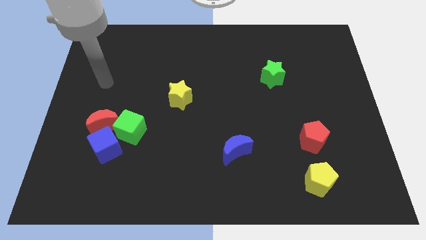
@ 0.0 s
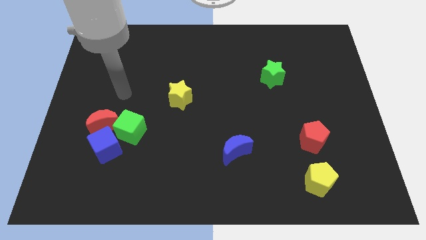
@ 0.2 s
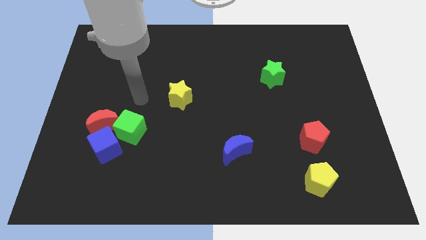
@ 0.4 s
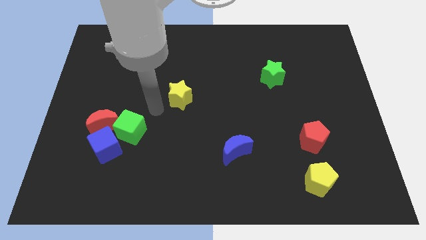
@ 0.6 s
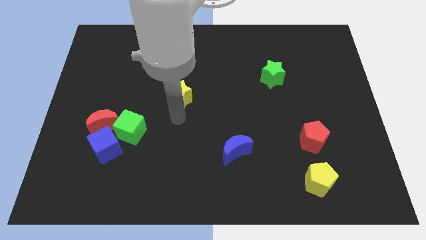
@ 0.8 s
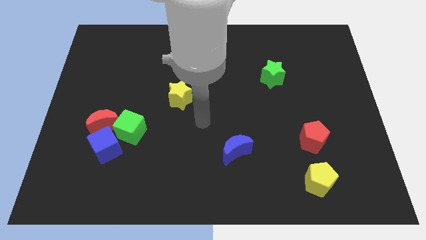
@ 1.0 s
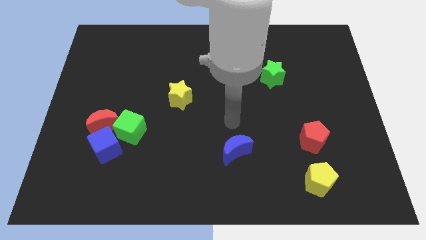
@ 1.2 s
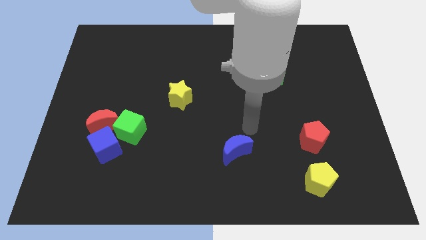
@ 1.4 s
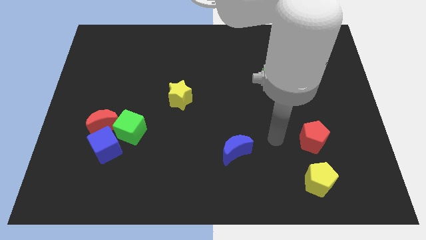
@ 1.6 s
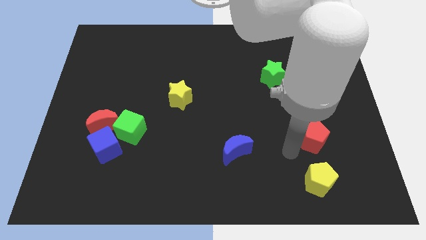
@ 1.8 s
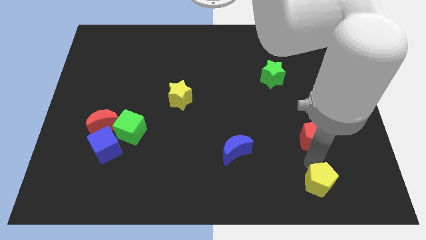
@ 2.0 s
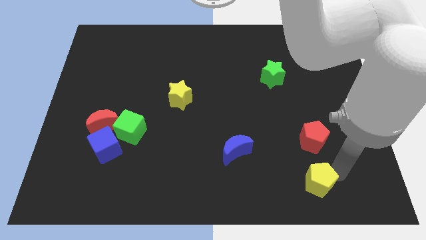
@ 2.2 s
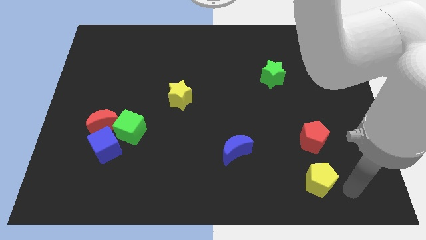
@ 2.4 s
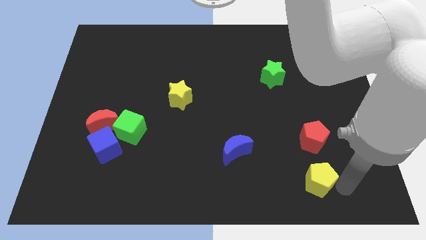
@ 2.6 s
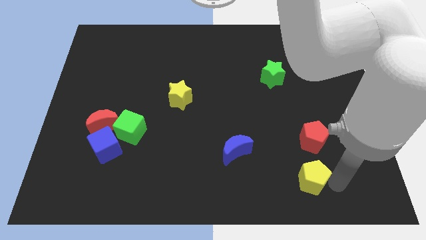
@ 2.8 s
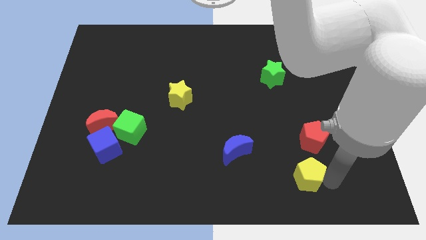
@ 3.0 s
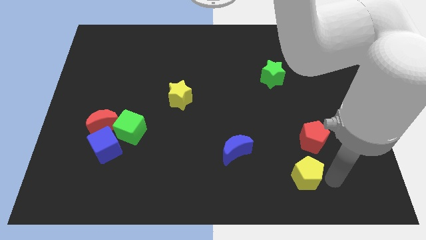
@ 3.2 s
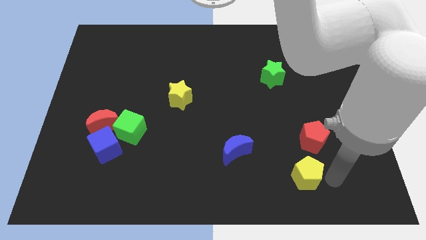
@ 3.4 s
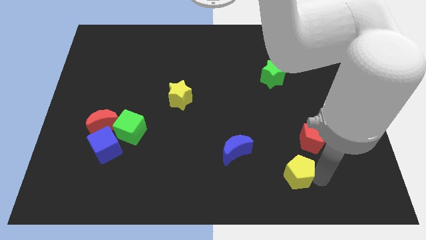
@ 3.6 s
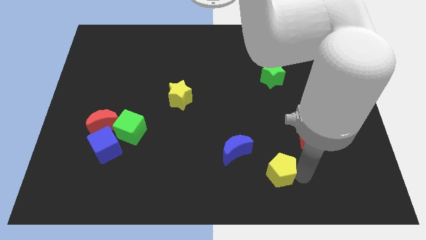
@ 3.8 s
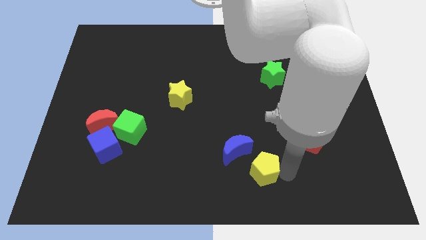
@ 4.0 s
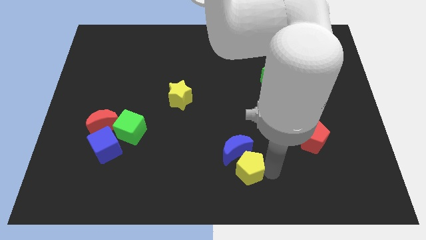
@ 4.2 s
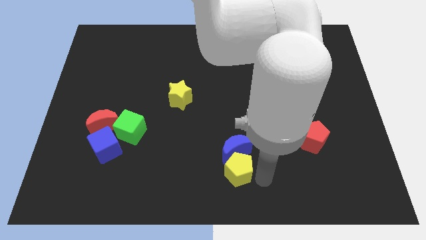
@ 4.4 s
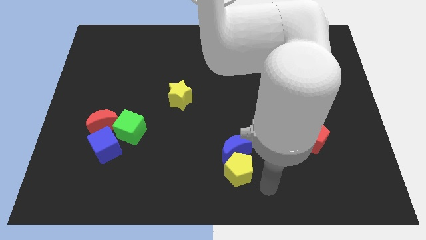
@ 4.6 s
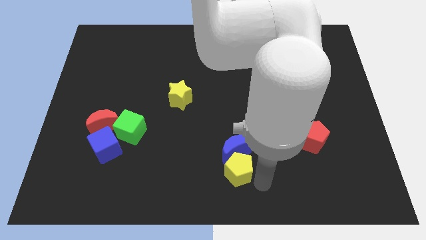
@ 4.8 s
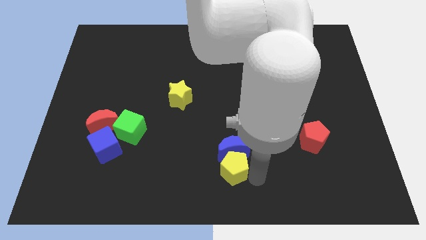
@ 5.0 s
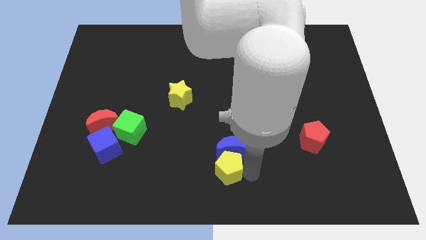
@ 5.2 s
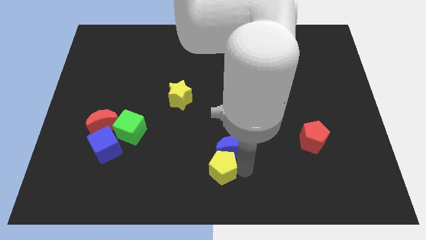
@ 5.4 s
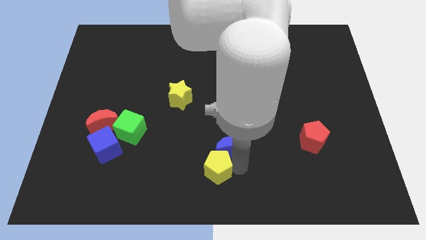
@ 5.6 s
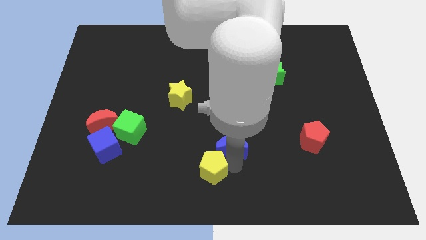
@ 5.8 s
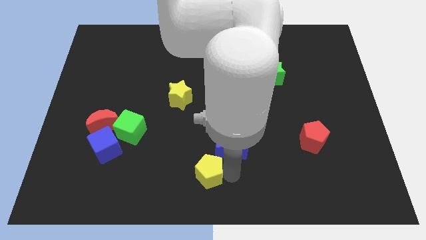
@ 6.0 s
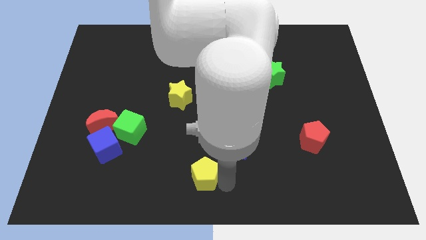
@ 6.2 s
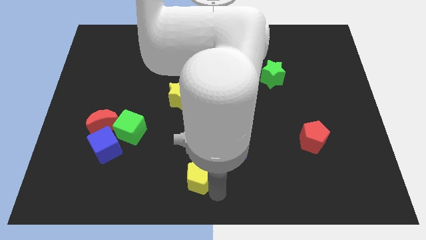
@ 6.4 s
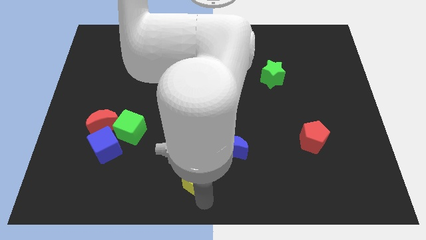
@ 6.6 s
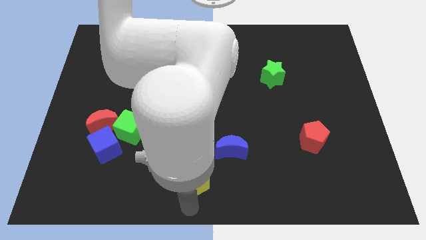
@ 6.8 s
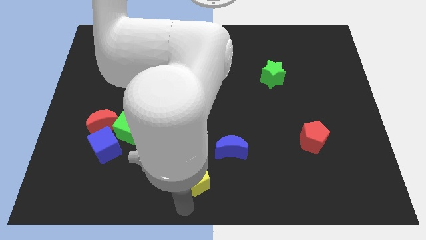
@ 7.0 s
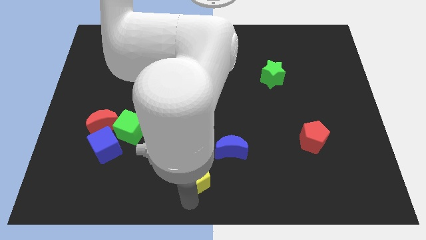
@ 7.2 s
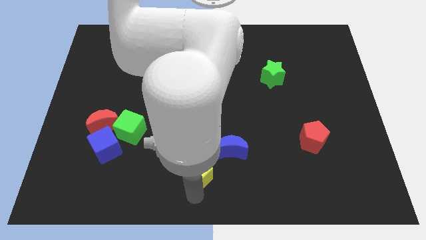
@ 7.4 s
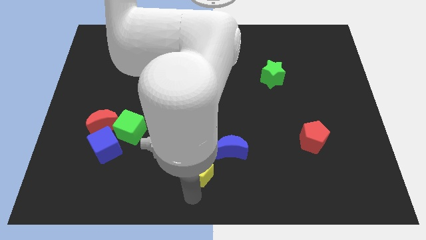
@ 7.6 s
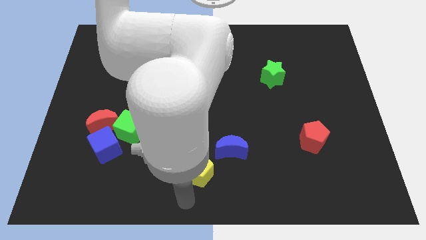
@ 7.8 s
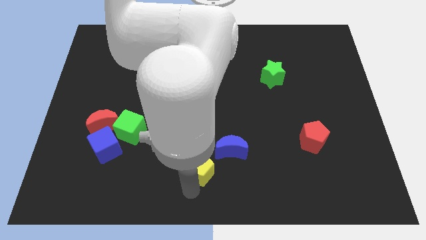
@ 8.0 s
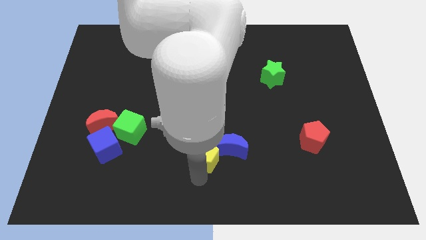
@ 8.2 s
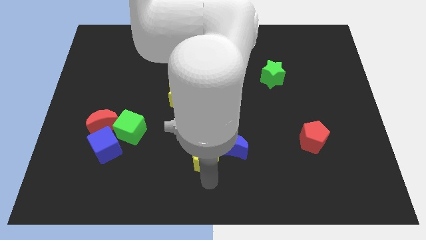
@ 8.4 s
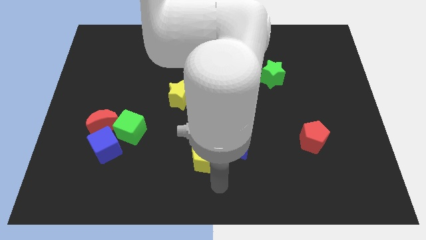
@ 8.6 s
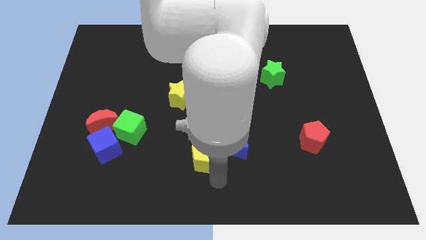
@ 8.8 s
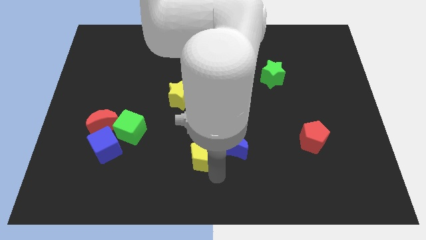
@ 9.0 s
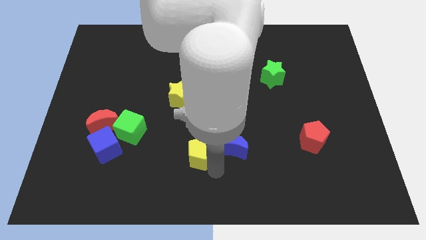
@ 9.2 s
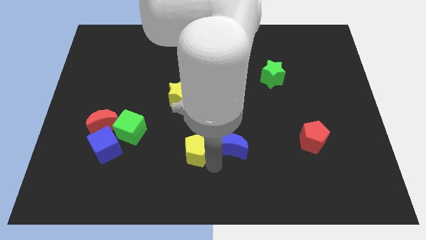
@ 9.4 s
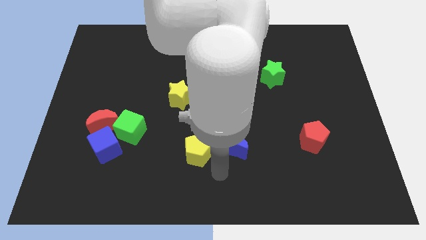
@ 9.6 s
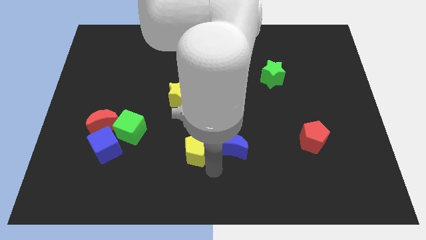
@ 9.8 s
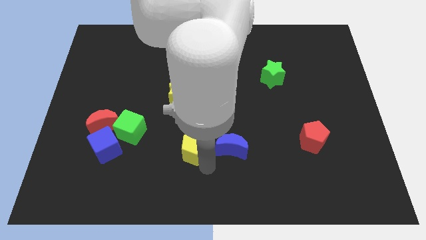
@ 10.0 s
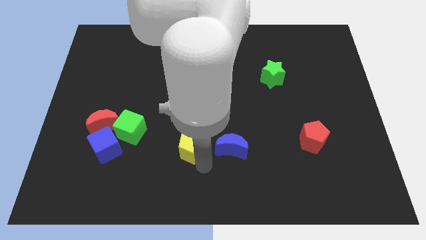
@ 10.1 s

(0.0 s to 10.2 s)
move the yellow pentagon to the bottom side of the yellow star

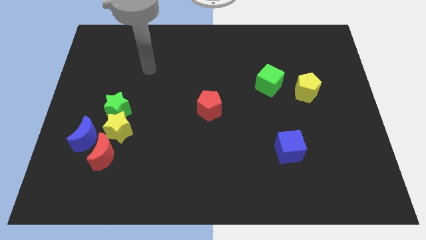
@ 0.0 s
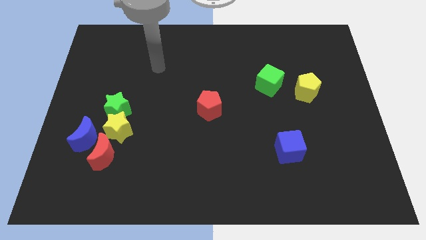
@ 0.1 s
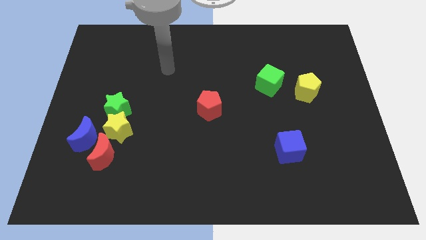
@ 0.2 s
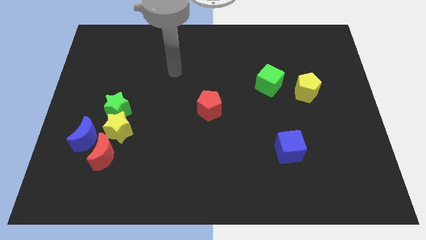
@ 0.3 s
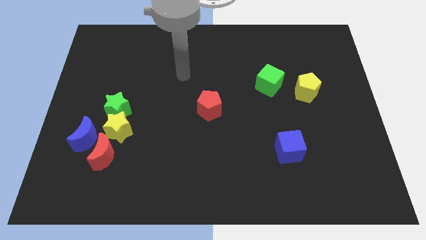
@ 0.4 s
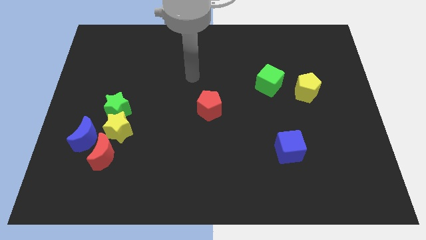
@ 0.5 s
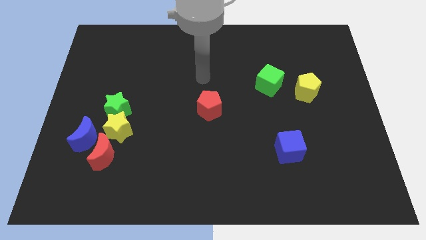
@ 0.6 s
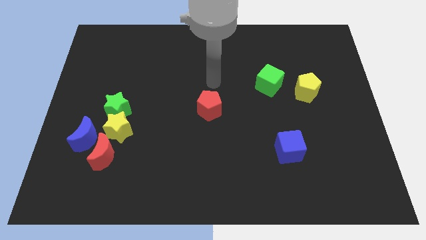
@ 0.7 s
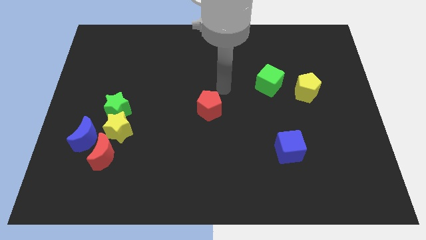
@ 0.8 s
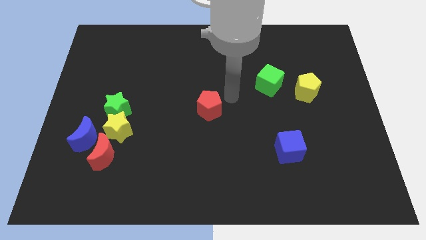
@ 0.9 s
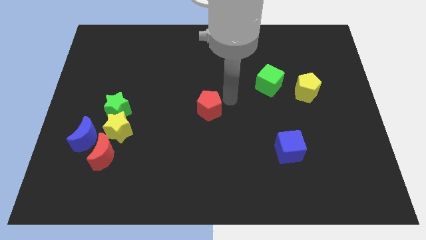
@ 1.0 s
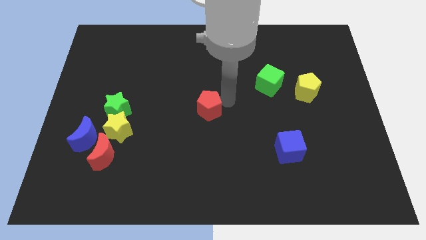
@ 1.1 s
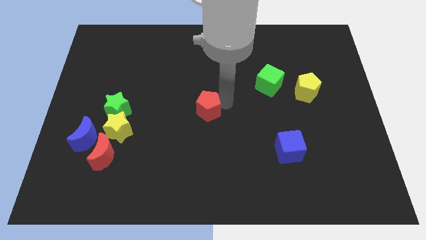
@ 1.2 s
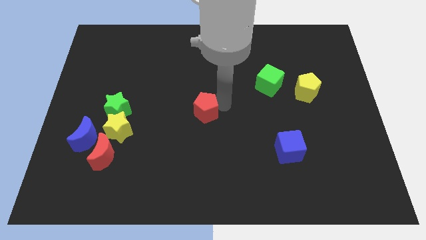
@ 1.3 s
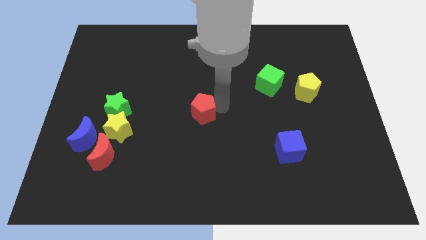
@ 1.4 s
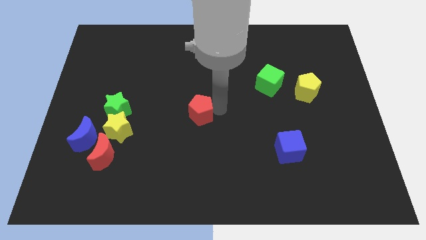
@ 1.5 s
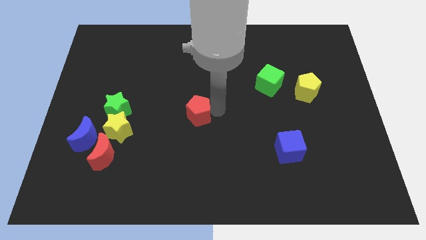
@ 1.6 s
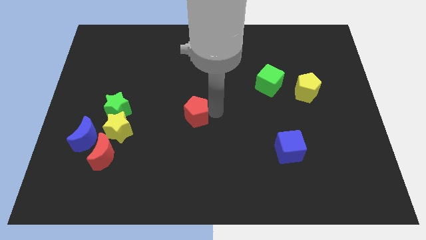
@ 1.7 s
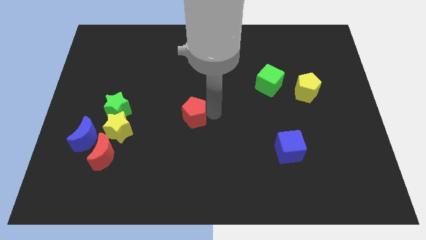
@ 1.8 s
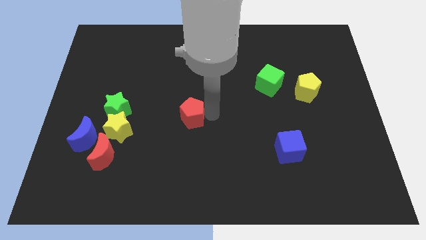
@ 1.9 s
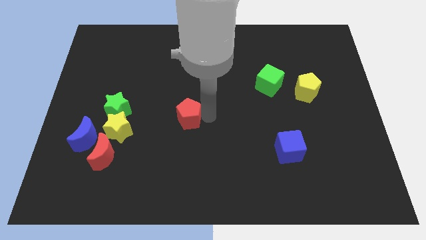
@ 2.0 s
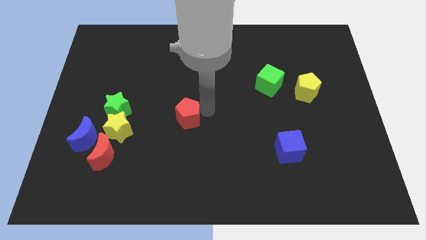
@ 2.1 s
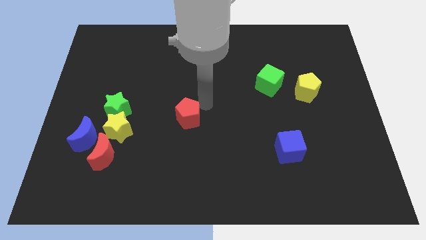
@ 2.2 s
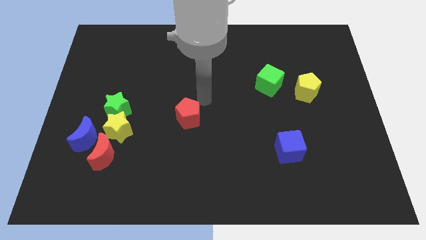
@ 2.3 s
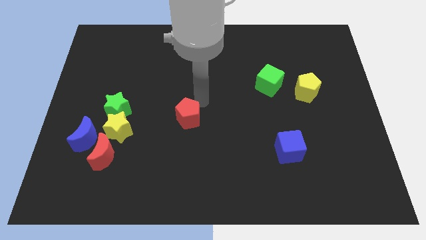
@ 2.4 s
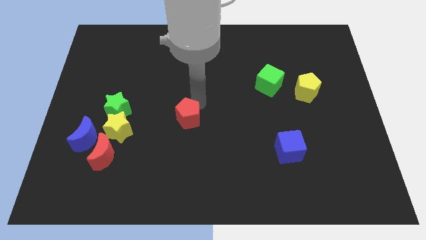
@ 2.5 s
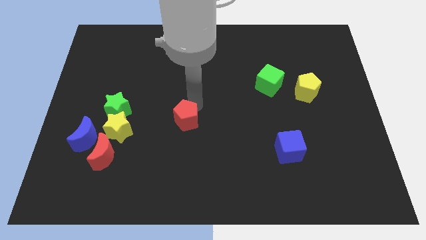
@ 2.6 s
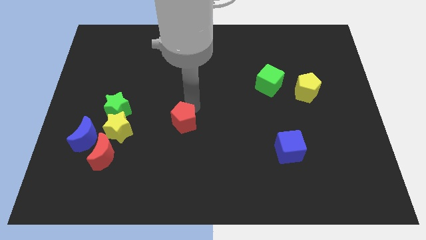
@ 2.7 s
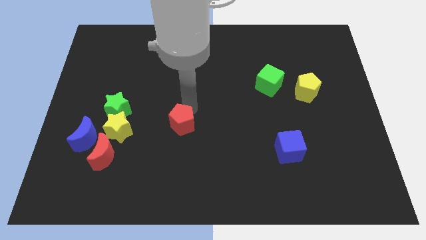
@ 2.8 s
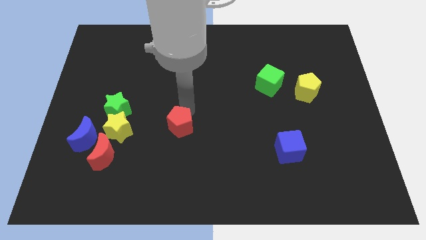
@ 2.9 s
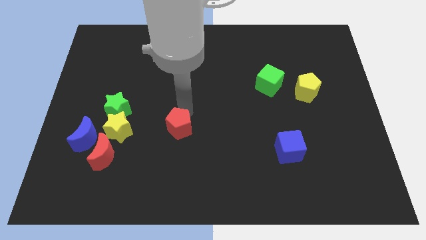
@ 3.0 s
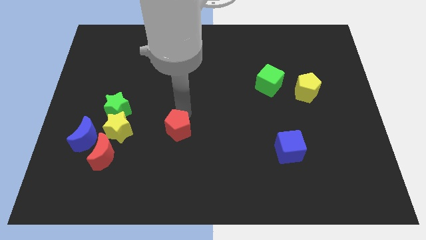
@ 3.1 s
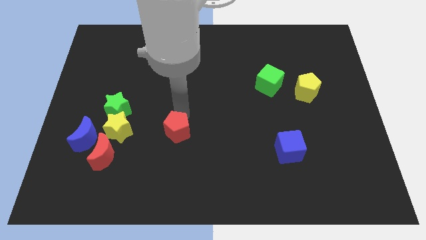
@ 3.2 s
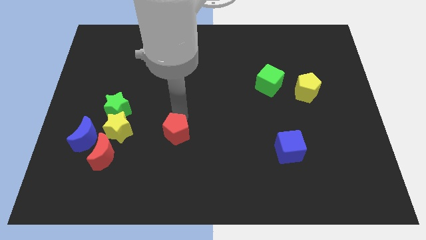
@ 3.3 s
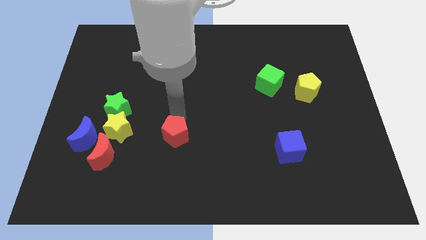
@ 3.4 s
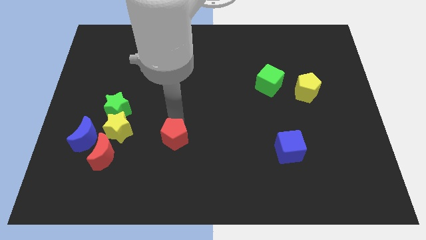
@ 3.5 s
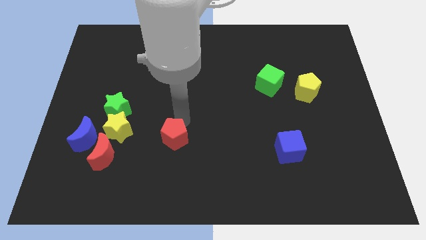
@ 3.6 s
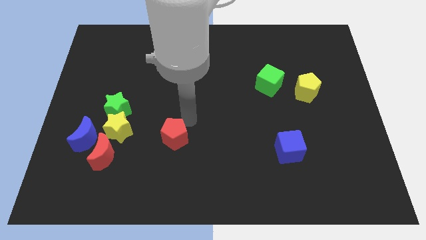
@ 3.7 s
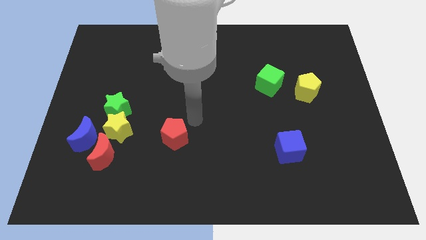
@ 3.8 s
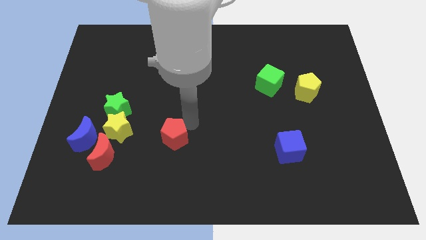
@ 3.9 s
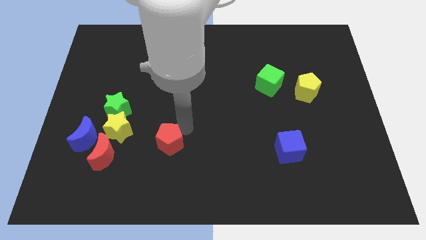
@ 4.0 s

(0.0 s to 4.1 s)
move the red pentagon just right of the red moon
